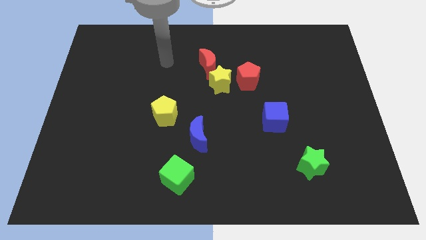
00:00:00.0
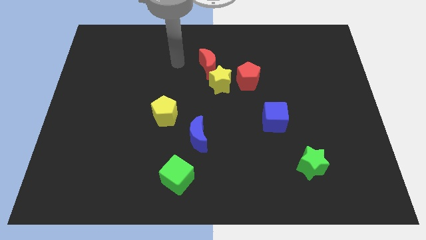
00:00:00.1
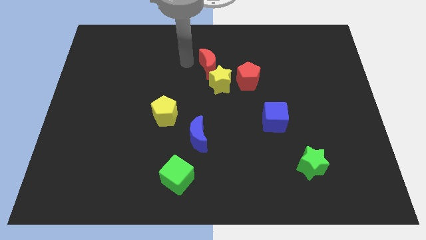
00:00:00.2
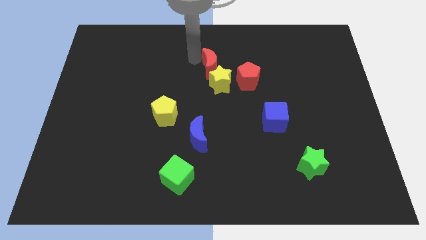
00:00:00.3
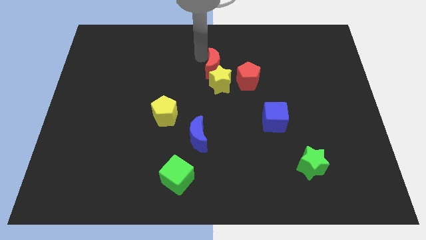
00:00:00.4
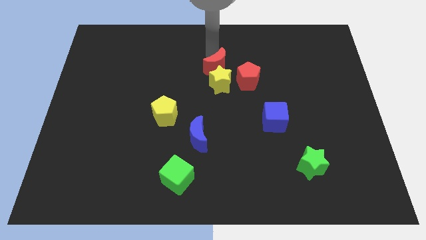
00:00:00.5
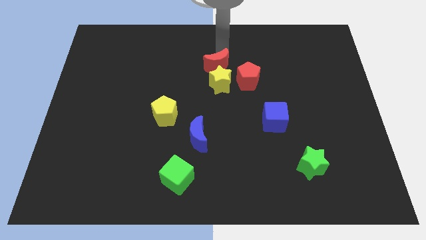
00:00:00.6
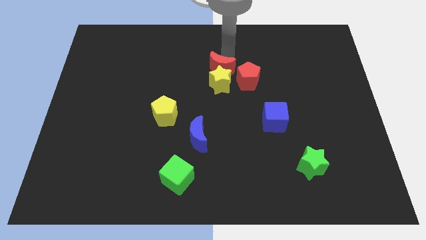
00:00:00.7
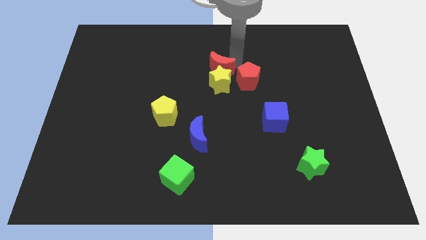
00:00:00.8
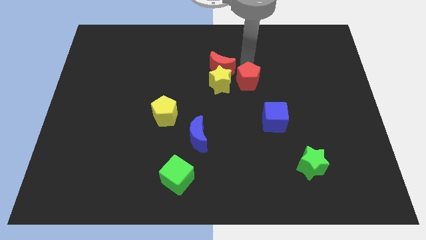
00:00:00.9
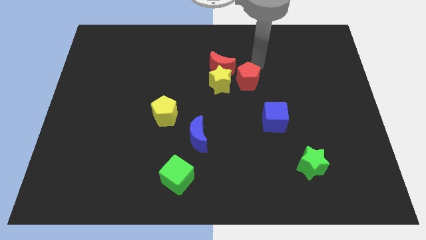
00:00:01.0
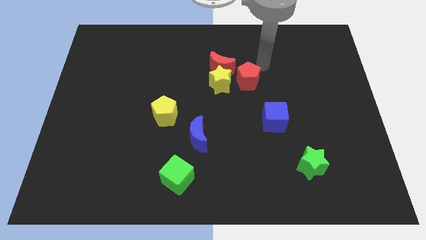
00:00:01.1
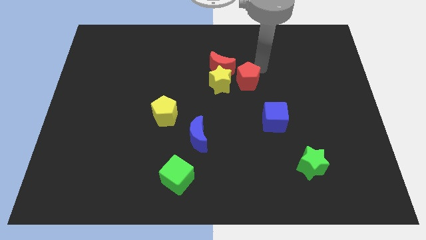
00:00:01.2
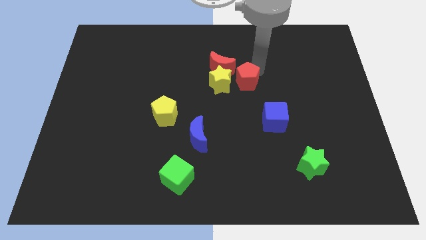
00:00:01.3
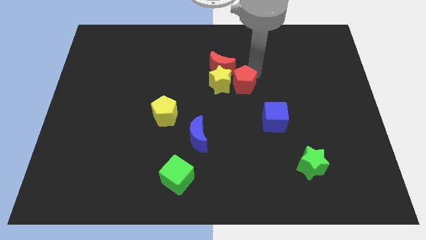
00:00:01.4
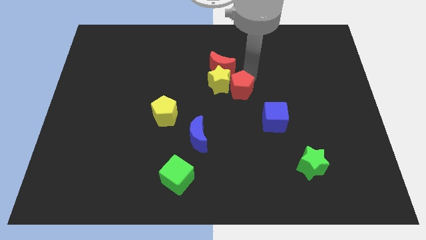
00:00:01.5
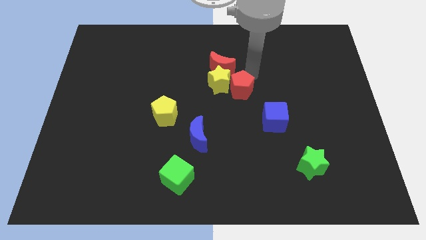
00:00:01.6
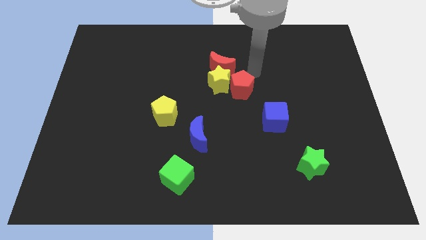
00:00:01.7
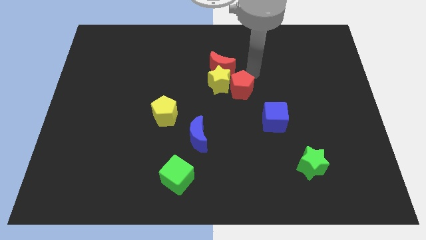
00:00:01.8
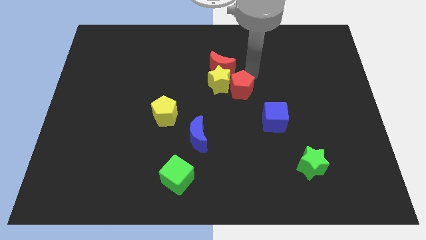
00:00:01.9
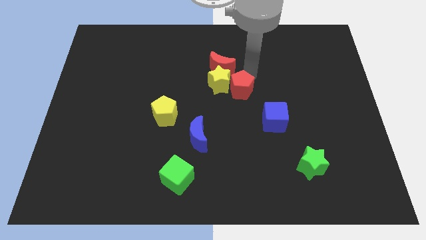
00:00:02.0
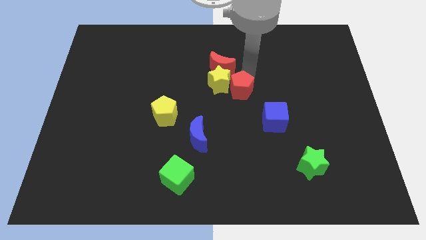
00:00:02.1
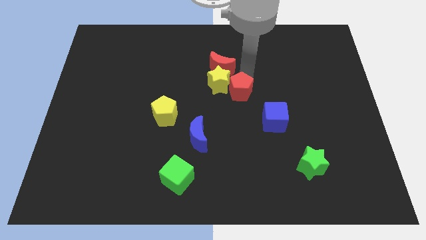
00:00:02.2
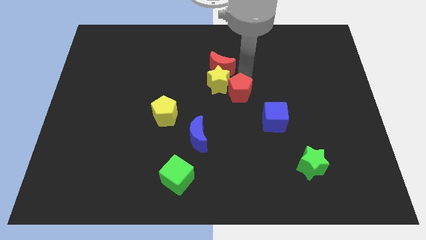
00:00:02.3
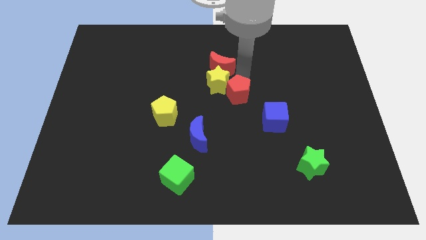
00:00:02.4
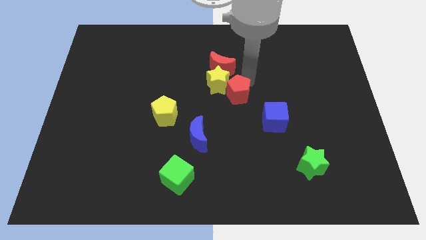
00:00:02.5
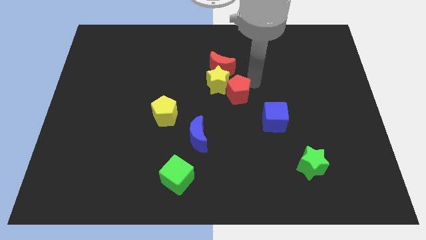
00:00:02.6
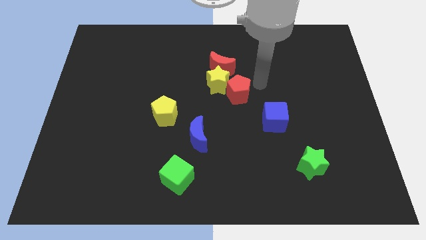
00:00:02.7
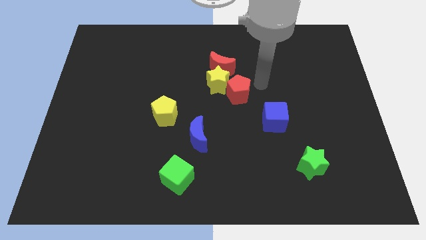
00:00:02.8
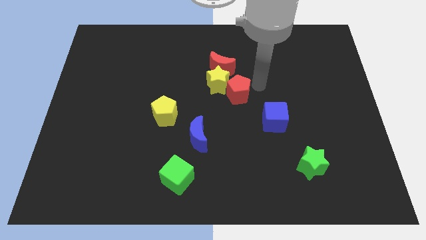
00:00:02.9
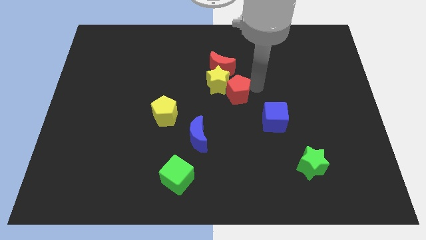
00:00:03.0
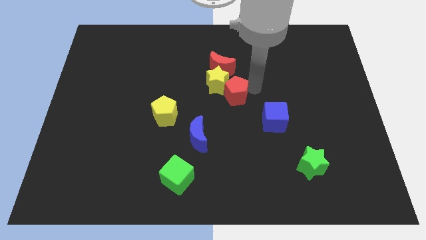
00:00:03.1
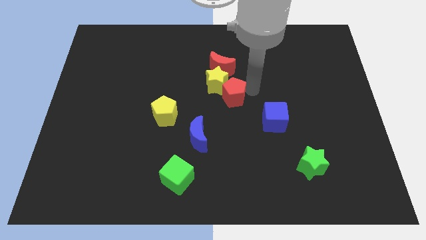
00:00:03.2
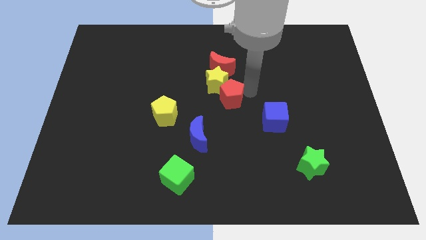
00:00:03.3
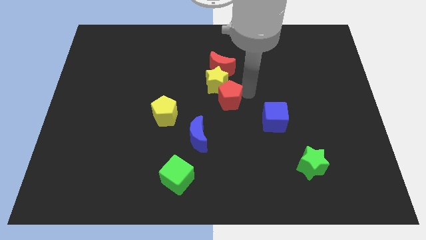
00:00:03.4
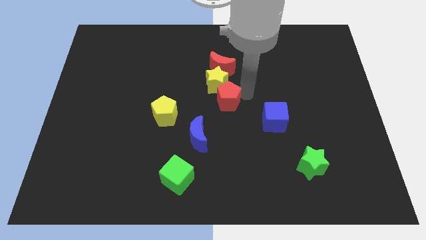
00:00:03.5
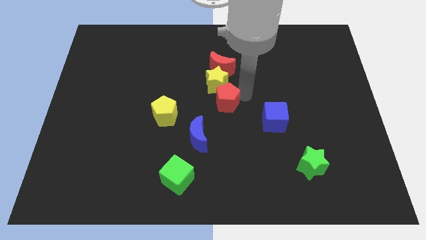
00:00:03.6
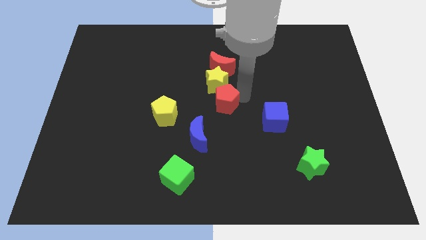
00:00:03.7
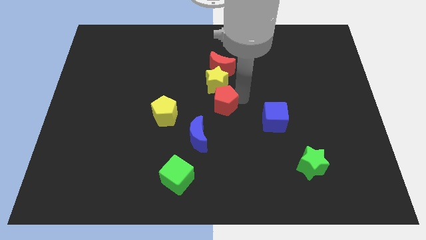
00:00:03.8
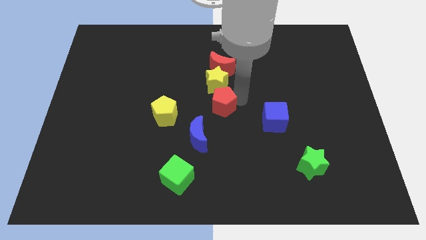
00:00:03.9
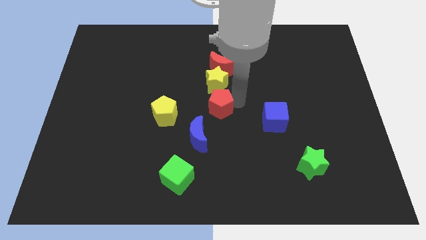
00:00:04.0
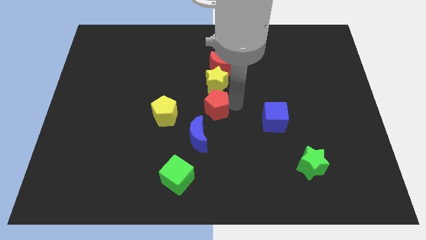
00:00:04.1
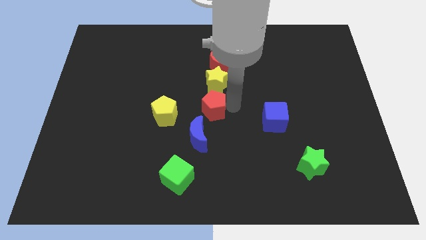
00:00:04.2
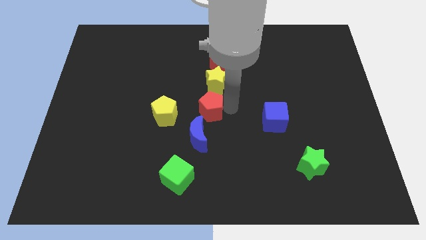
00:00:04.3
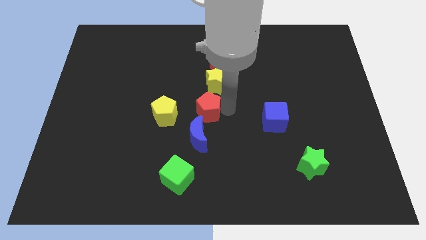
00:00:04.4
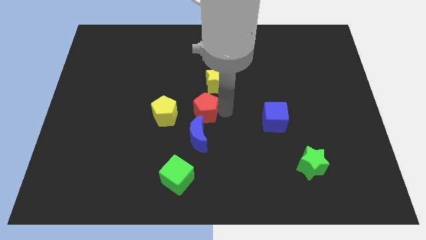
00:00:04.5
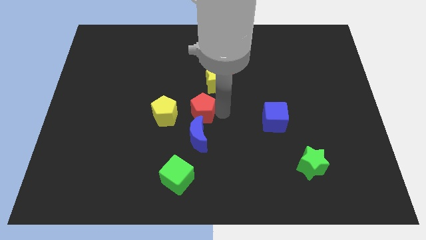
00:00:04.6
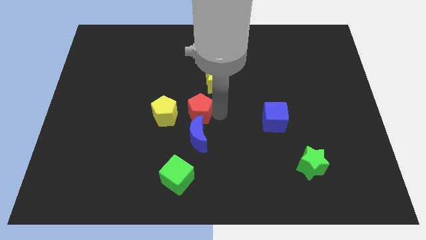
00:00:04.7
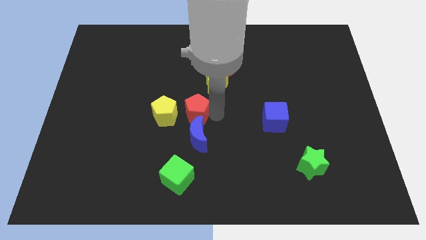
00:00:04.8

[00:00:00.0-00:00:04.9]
put the red pentagon to the top right of the yellow pentagon

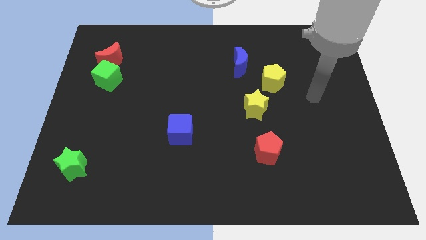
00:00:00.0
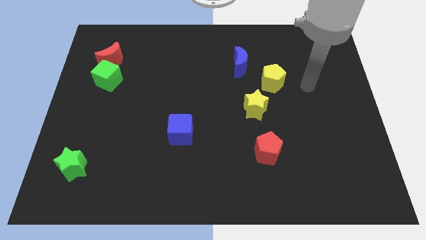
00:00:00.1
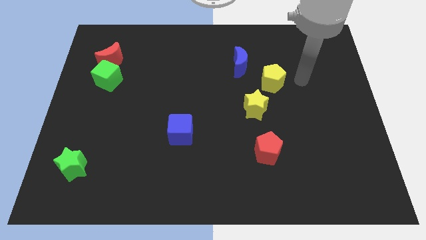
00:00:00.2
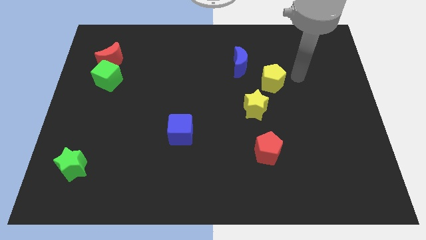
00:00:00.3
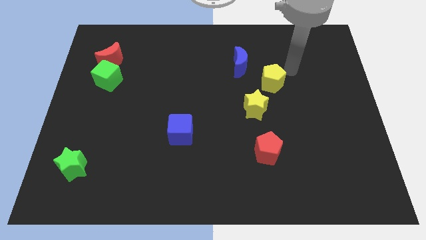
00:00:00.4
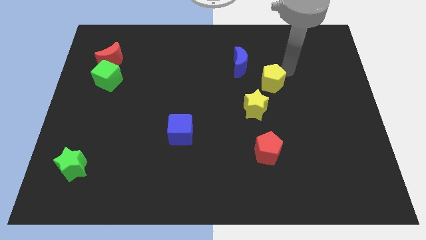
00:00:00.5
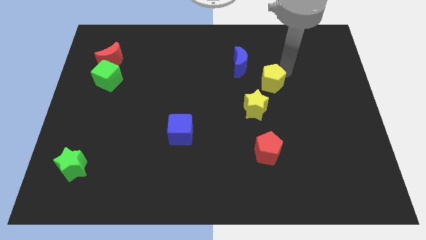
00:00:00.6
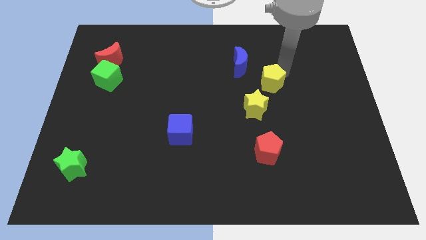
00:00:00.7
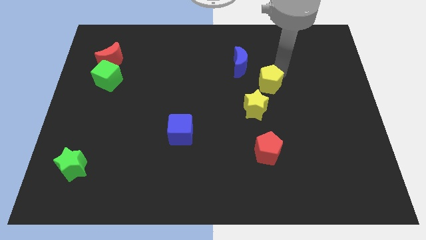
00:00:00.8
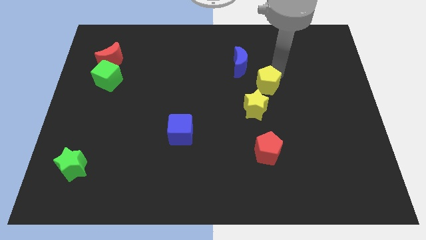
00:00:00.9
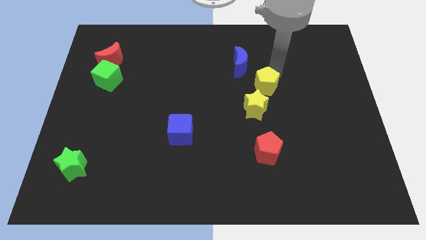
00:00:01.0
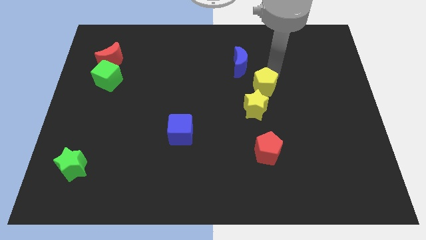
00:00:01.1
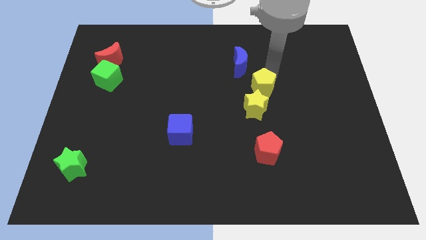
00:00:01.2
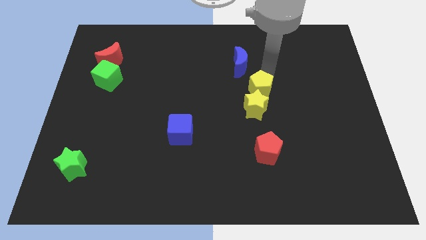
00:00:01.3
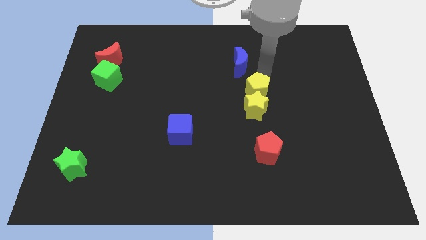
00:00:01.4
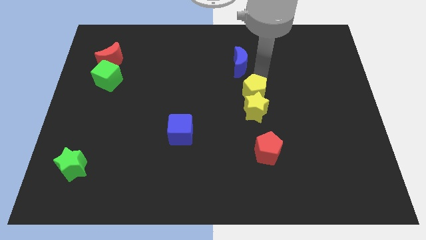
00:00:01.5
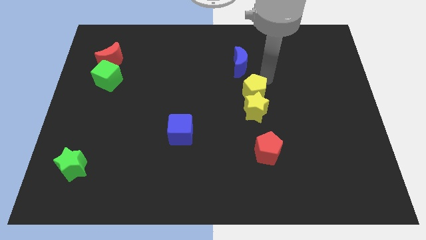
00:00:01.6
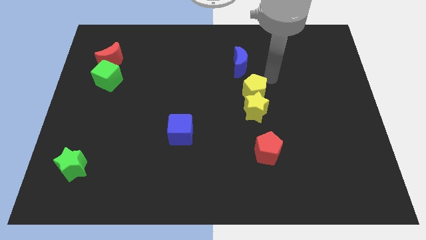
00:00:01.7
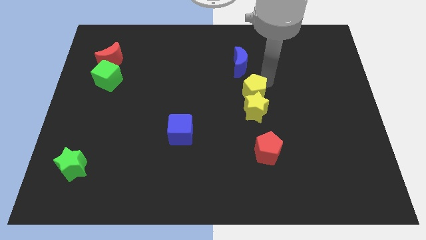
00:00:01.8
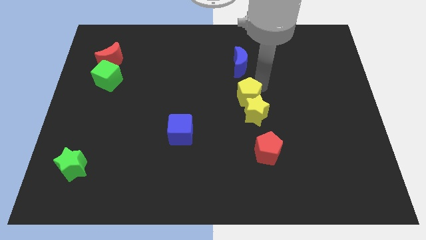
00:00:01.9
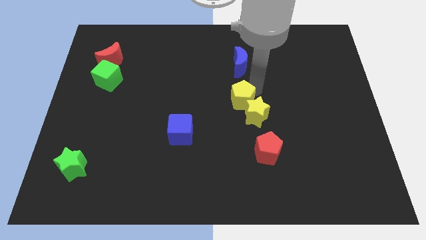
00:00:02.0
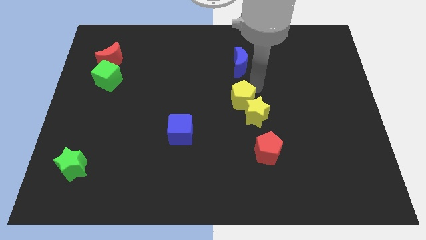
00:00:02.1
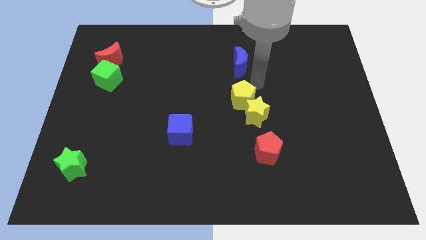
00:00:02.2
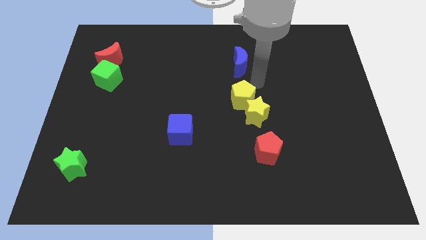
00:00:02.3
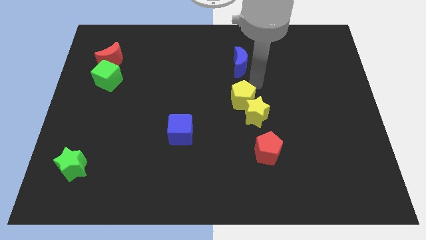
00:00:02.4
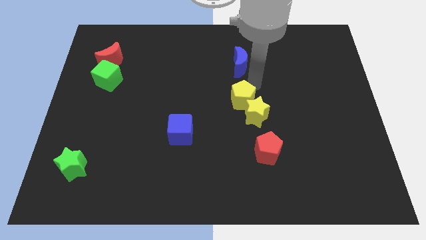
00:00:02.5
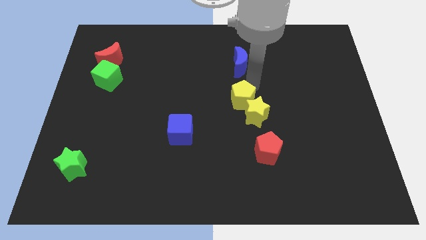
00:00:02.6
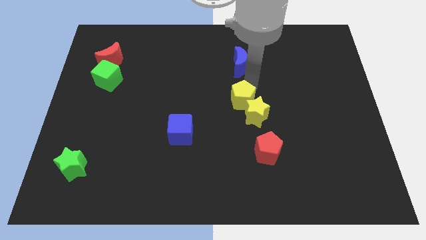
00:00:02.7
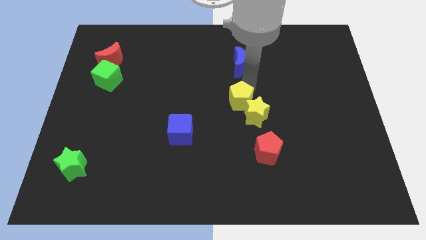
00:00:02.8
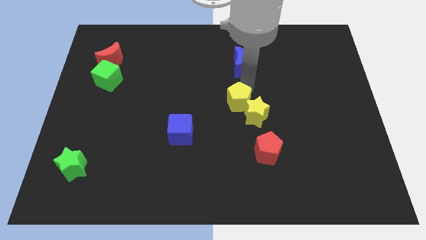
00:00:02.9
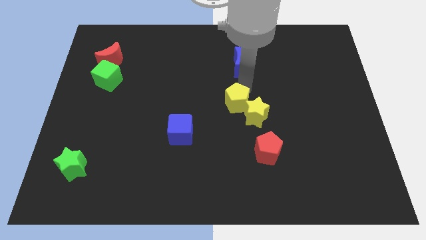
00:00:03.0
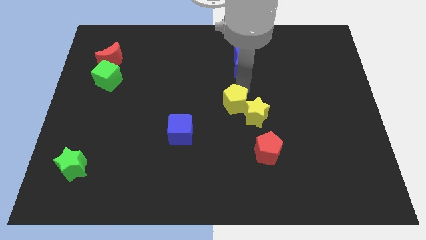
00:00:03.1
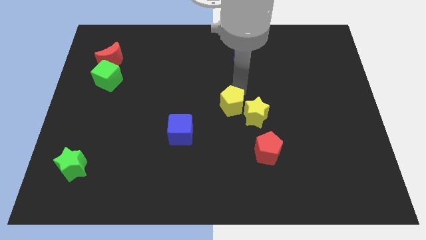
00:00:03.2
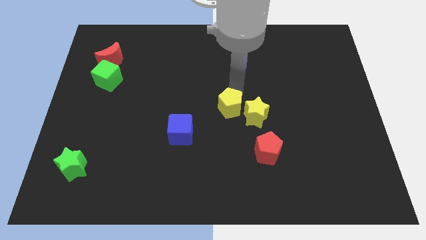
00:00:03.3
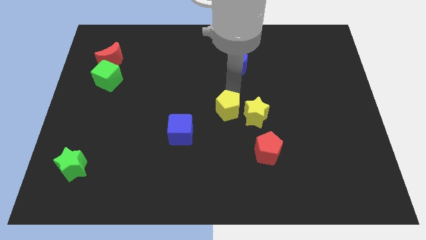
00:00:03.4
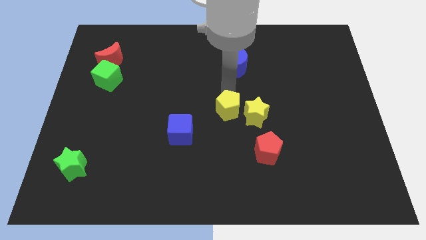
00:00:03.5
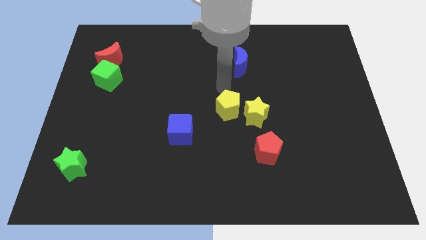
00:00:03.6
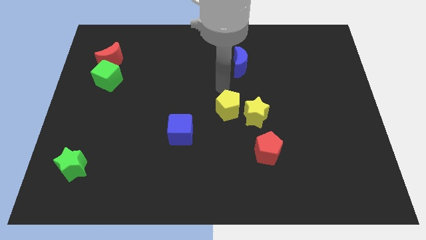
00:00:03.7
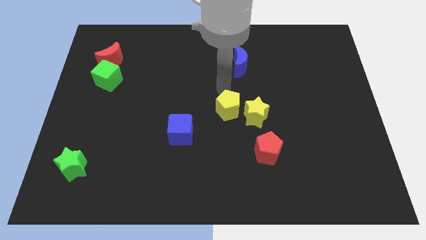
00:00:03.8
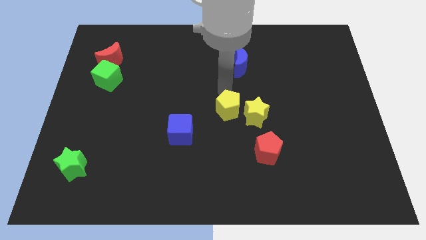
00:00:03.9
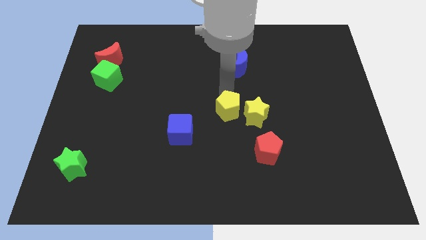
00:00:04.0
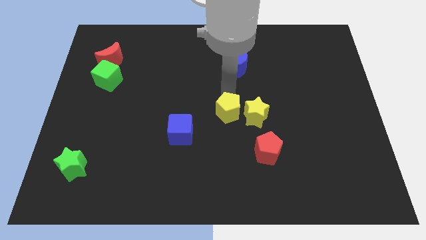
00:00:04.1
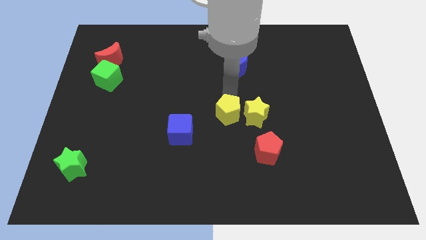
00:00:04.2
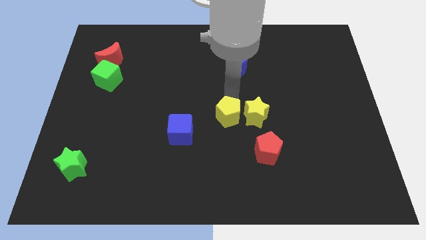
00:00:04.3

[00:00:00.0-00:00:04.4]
slide the yellow pentagon diagonally down and to the left of the yellow star
